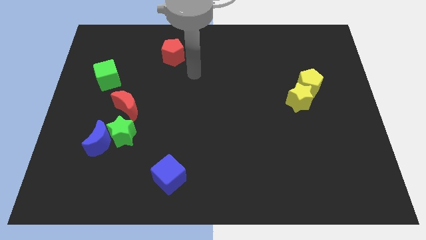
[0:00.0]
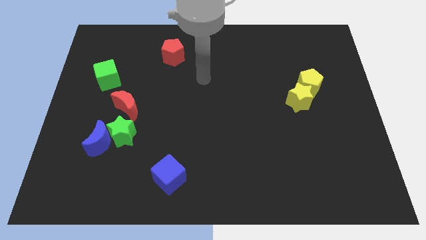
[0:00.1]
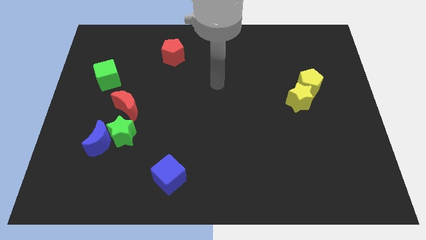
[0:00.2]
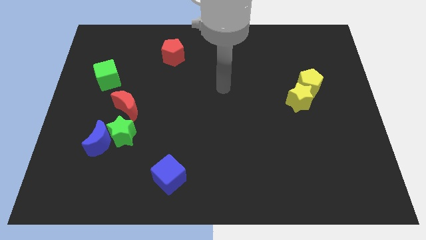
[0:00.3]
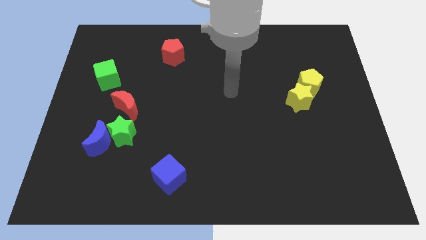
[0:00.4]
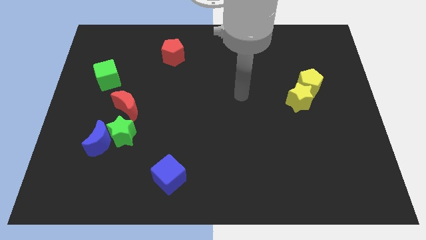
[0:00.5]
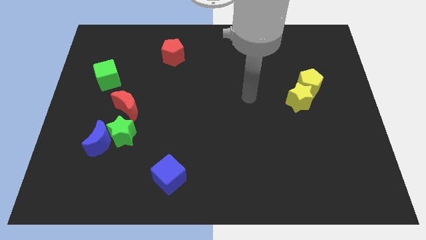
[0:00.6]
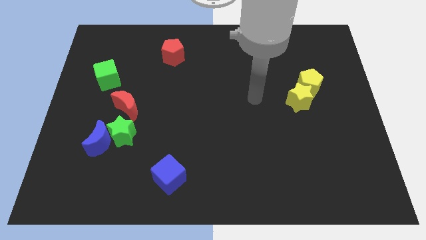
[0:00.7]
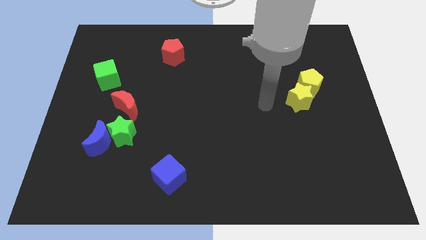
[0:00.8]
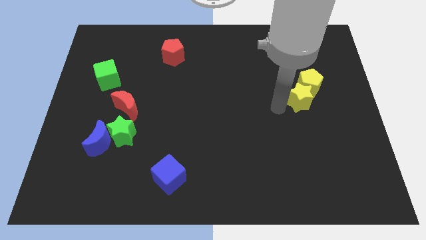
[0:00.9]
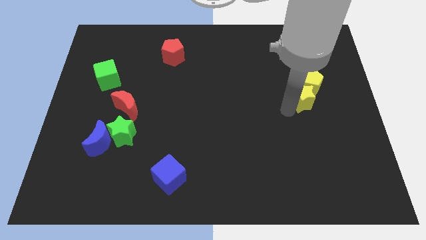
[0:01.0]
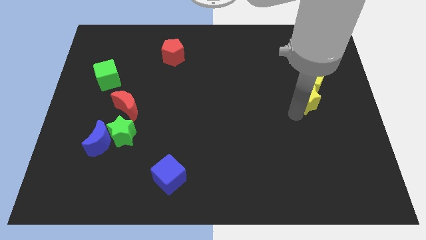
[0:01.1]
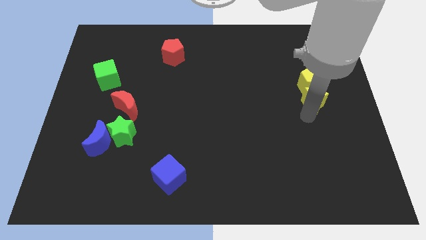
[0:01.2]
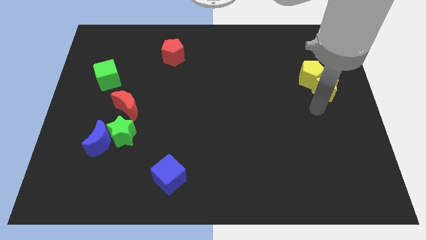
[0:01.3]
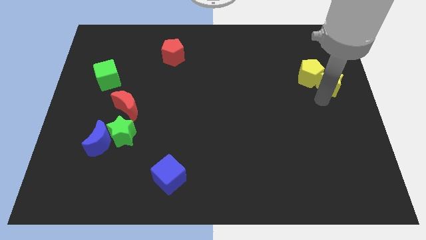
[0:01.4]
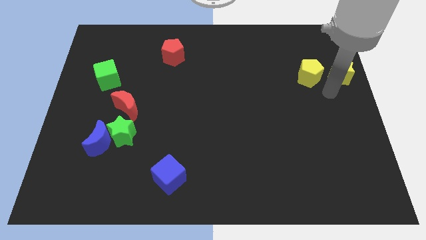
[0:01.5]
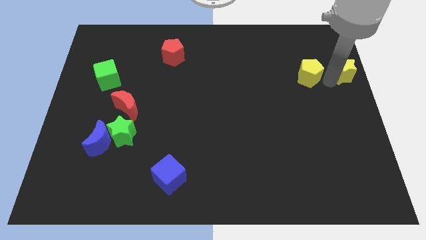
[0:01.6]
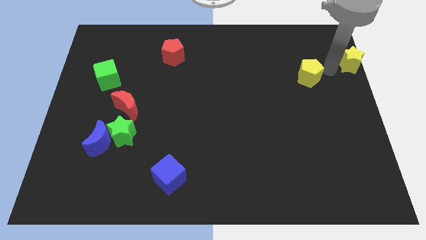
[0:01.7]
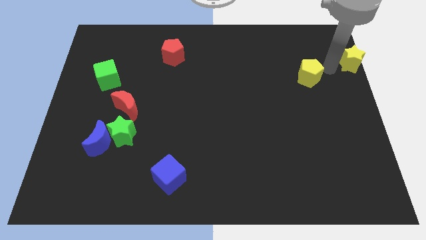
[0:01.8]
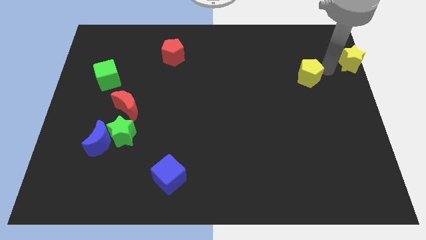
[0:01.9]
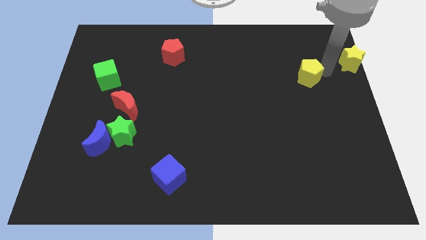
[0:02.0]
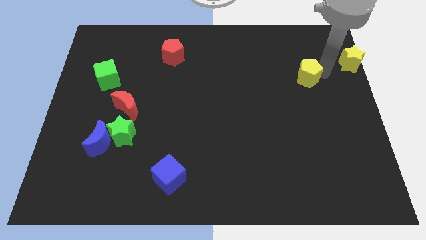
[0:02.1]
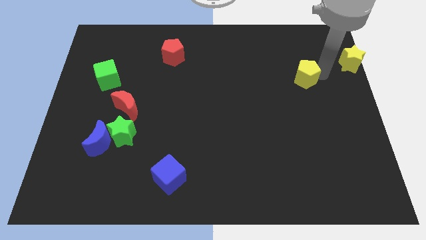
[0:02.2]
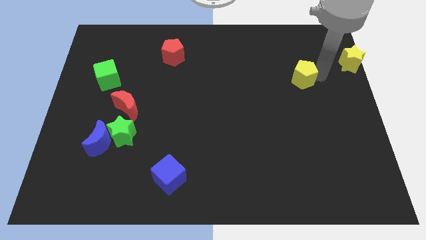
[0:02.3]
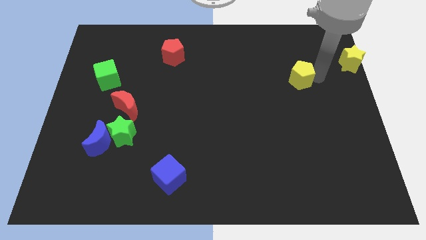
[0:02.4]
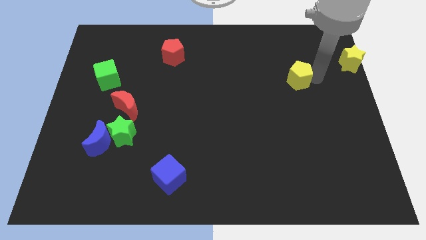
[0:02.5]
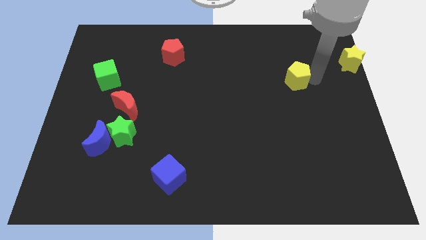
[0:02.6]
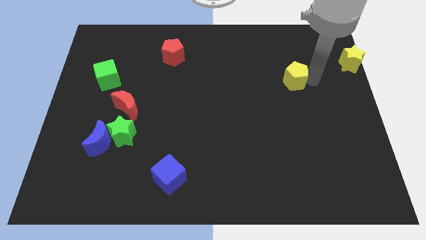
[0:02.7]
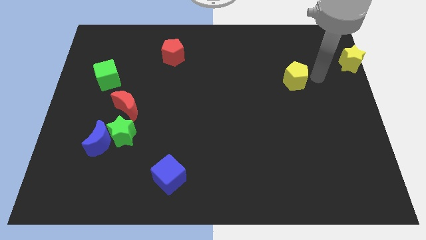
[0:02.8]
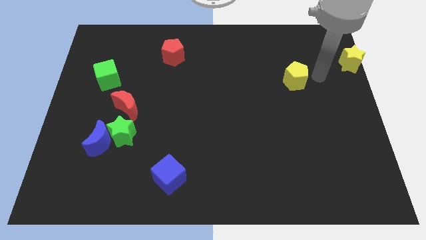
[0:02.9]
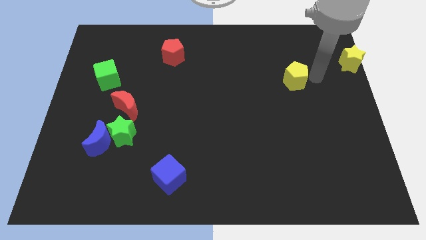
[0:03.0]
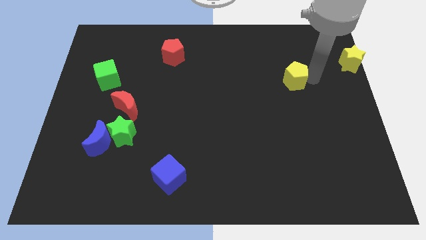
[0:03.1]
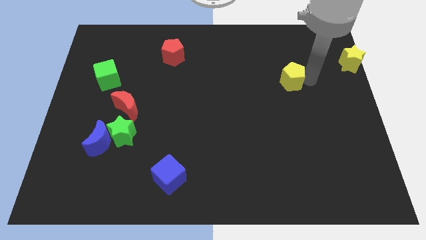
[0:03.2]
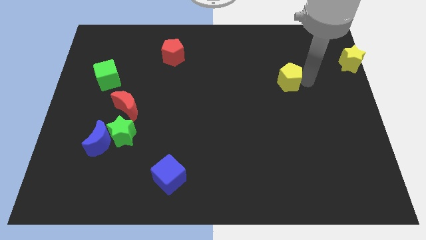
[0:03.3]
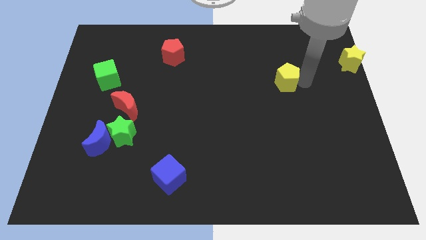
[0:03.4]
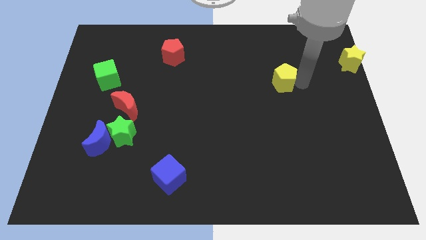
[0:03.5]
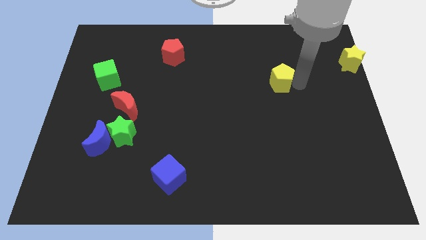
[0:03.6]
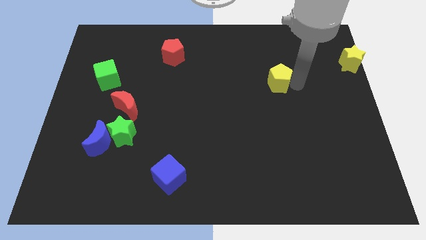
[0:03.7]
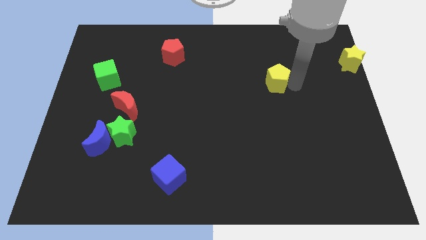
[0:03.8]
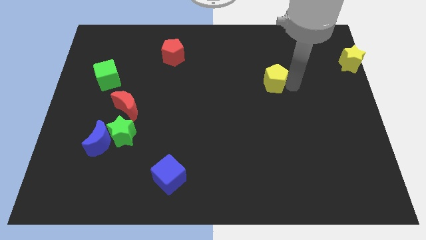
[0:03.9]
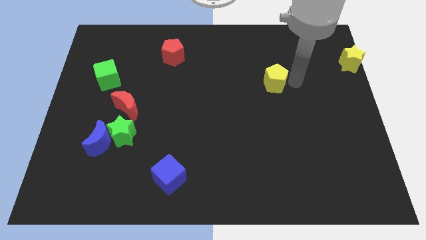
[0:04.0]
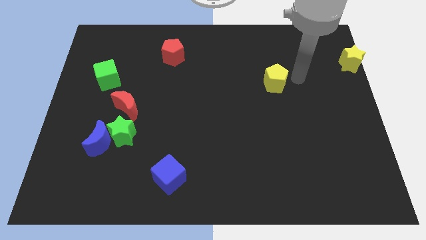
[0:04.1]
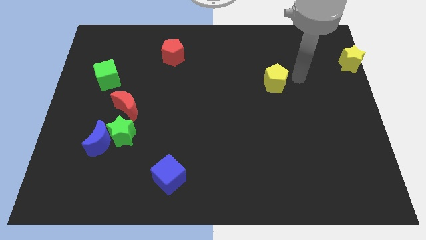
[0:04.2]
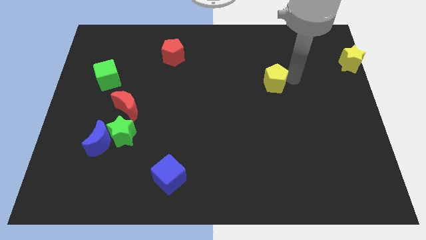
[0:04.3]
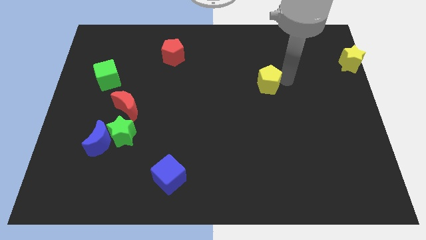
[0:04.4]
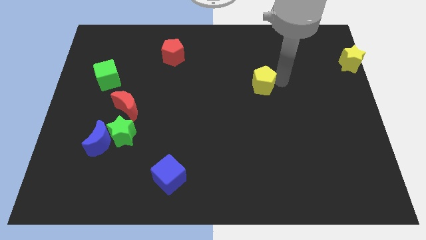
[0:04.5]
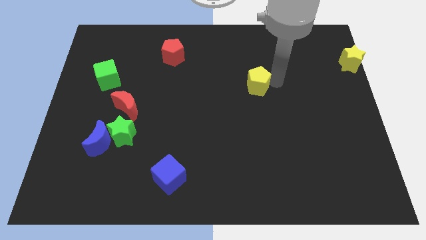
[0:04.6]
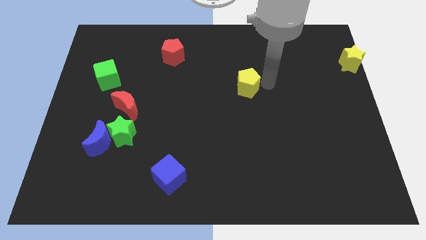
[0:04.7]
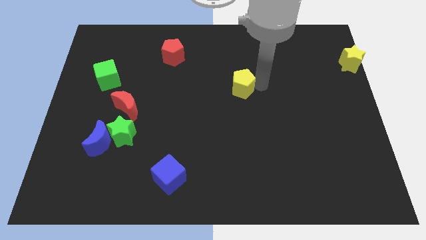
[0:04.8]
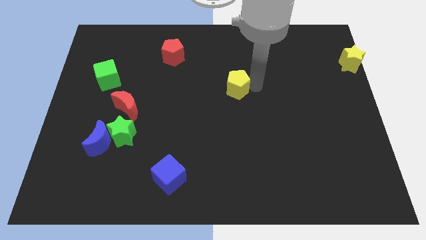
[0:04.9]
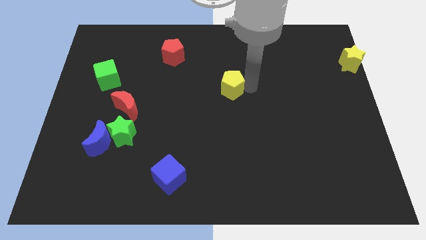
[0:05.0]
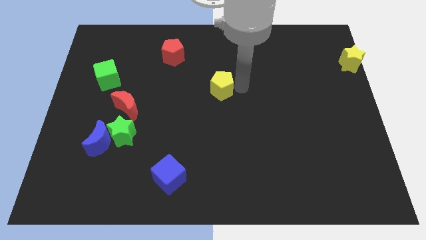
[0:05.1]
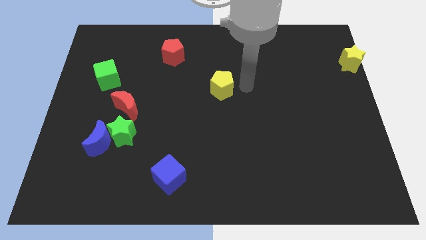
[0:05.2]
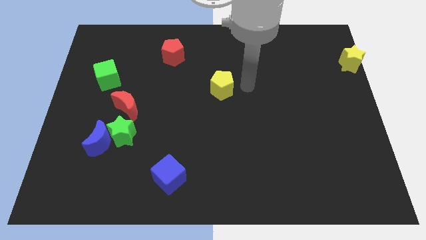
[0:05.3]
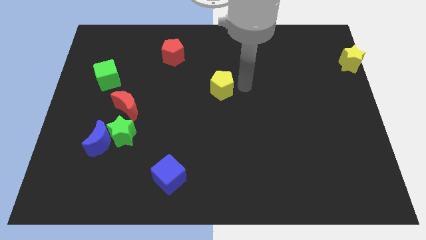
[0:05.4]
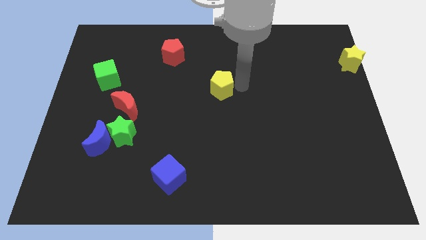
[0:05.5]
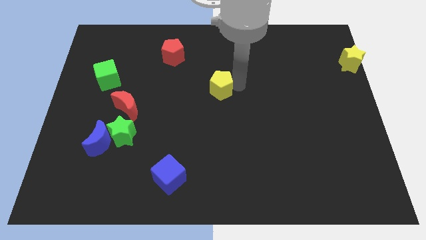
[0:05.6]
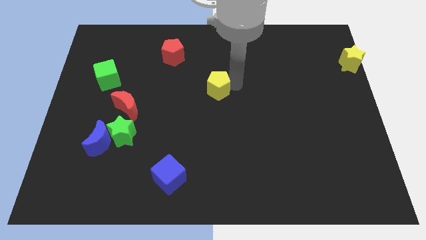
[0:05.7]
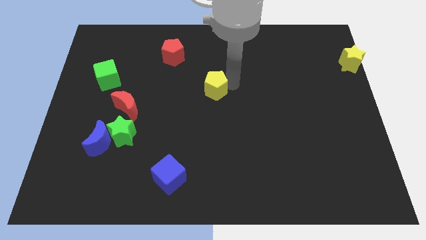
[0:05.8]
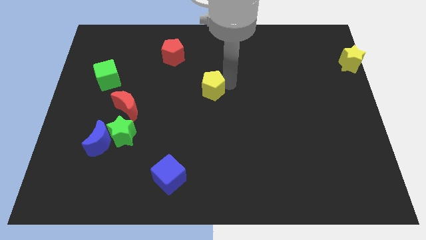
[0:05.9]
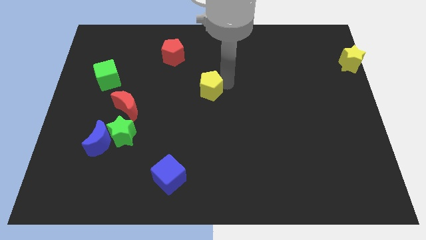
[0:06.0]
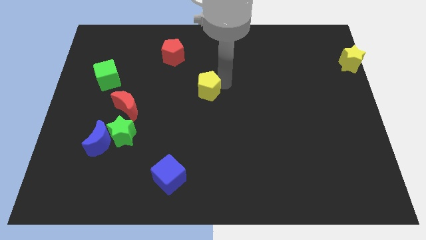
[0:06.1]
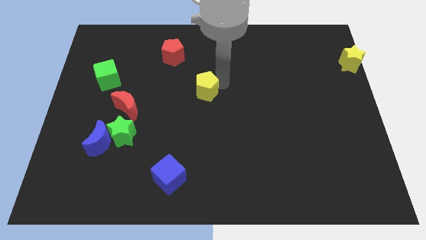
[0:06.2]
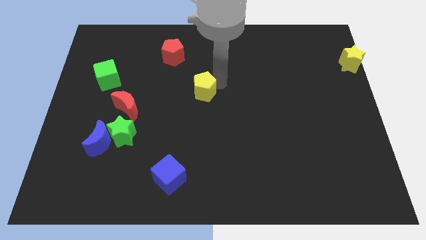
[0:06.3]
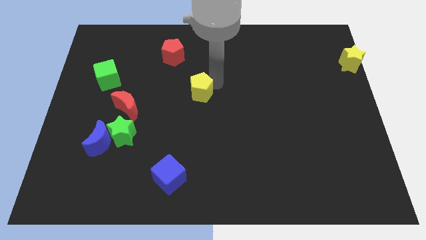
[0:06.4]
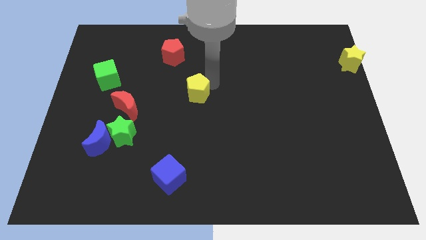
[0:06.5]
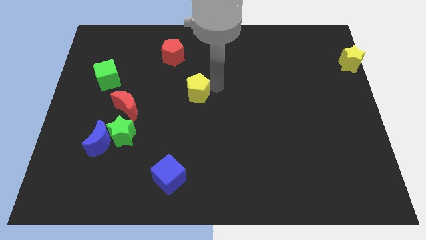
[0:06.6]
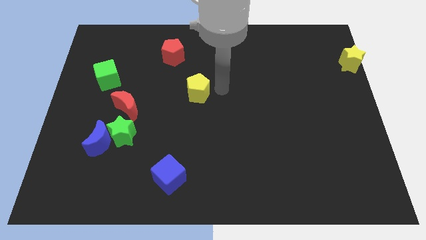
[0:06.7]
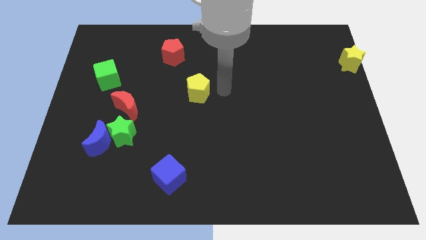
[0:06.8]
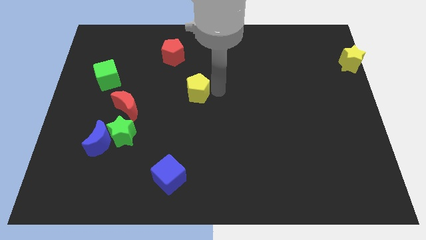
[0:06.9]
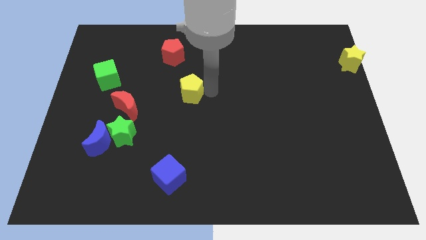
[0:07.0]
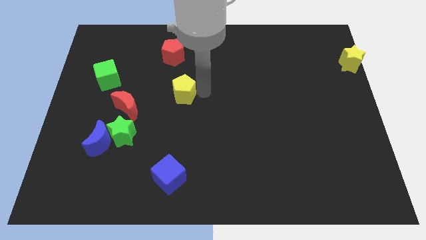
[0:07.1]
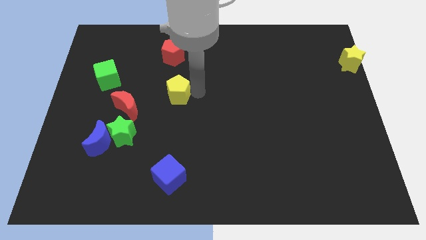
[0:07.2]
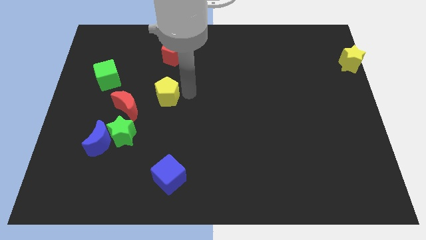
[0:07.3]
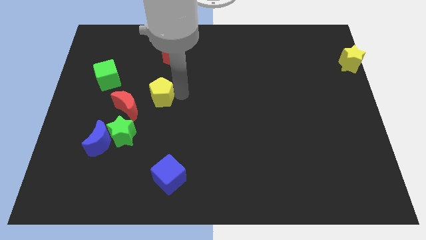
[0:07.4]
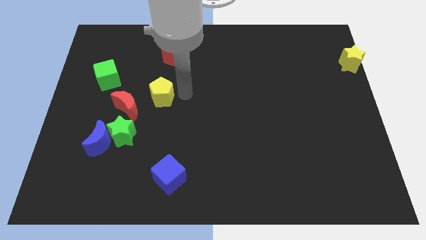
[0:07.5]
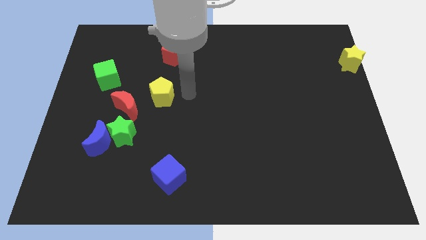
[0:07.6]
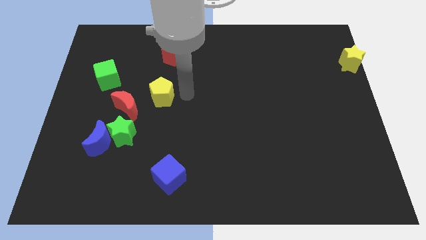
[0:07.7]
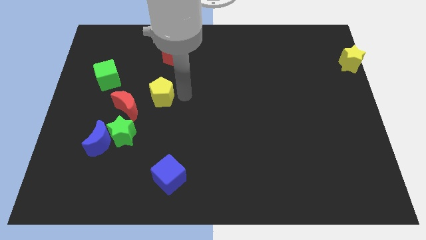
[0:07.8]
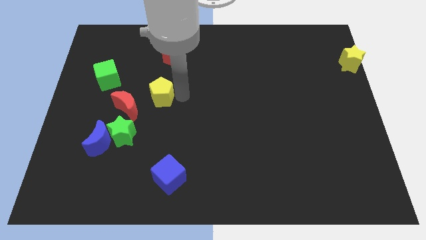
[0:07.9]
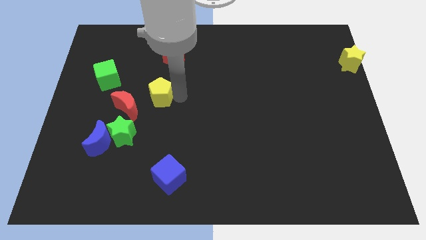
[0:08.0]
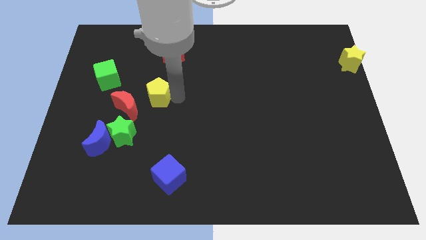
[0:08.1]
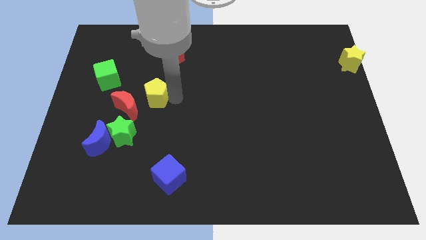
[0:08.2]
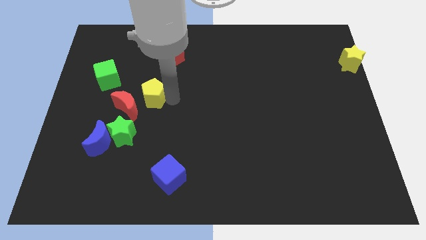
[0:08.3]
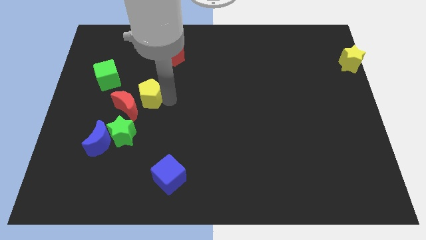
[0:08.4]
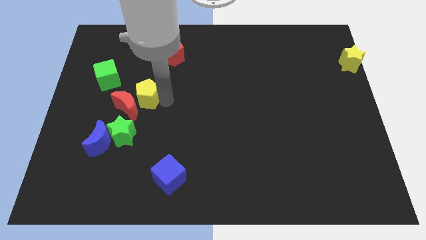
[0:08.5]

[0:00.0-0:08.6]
push the yellow pentagon to the bottom right of the green cube
